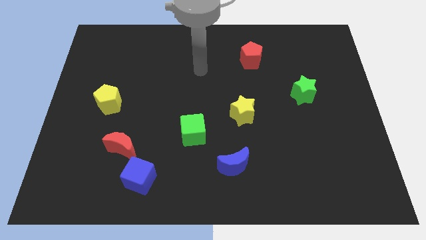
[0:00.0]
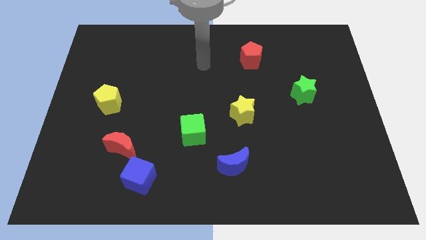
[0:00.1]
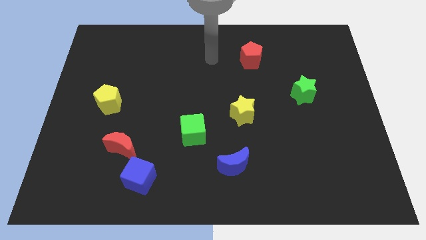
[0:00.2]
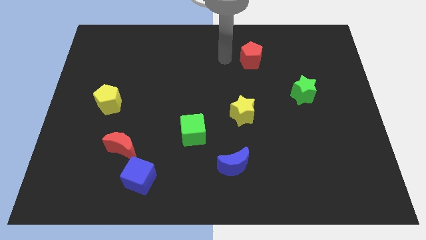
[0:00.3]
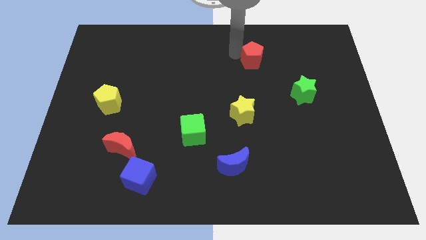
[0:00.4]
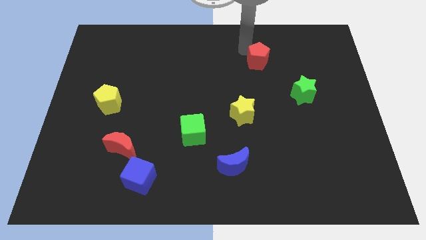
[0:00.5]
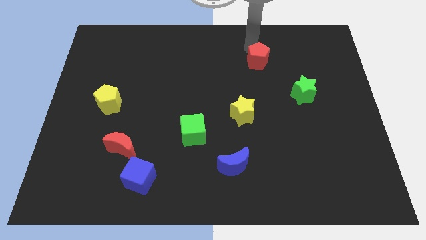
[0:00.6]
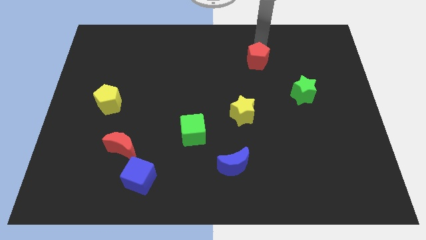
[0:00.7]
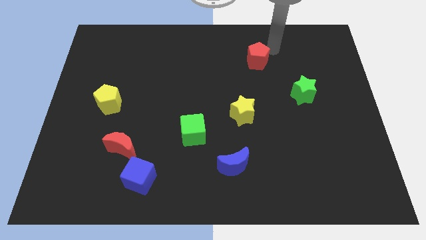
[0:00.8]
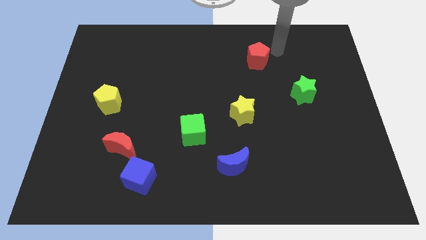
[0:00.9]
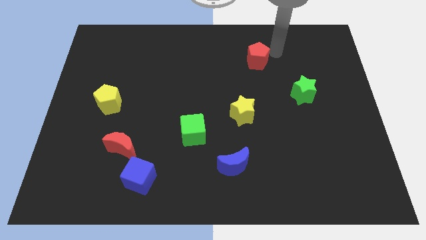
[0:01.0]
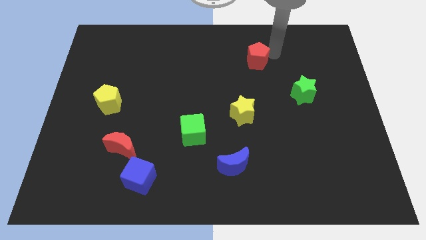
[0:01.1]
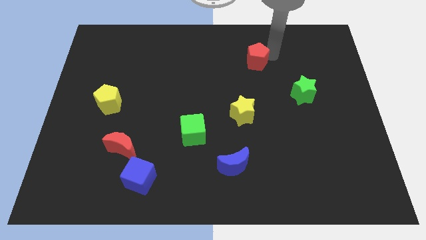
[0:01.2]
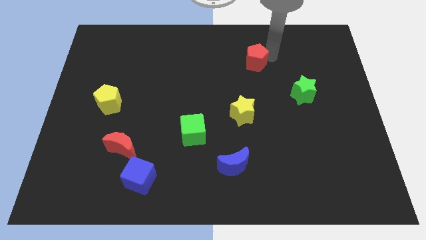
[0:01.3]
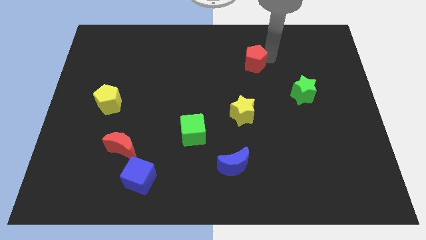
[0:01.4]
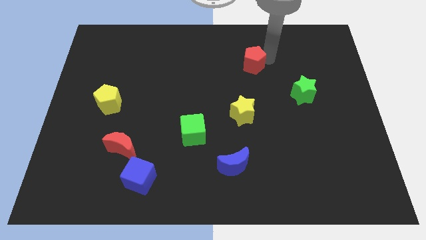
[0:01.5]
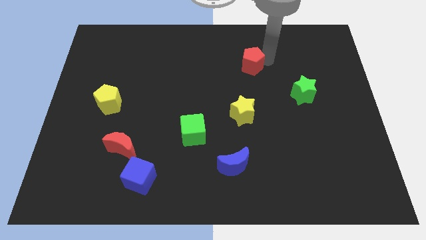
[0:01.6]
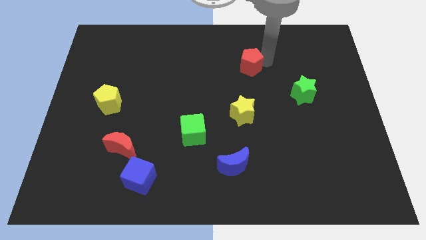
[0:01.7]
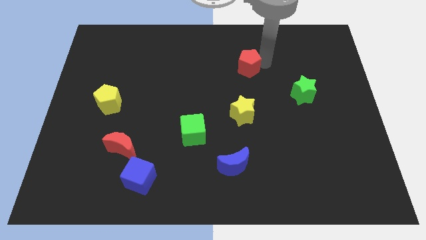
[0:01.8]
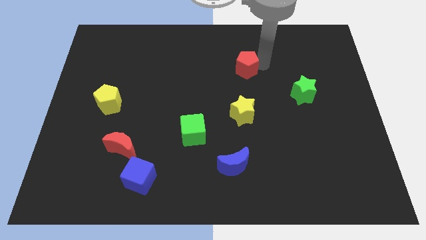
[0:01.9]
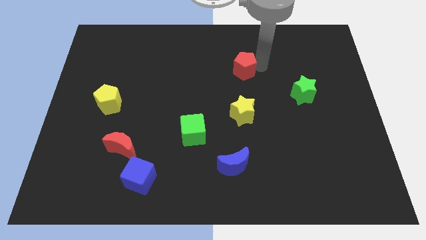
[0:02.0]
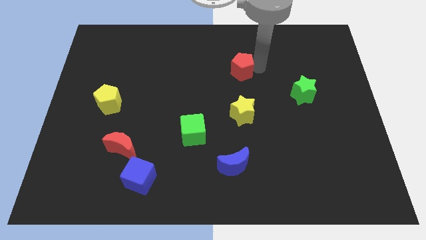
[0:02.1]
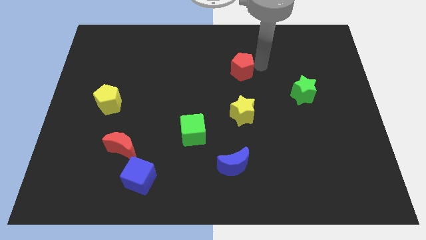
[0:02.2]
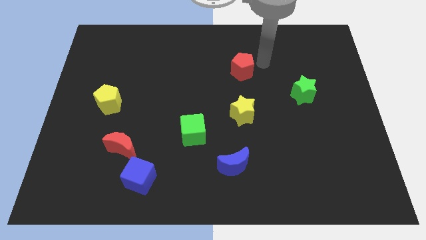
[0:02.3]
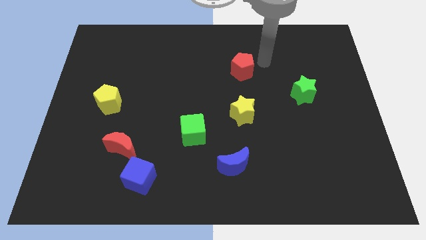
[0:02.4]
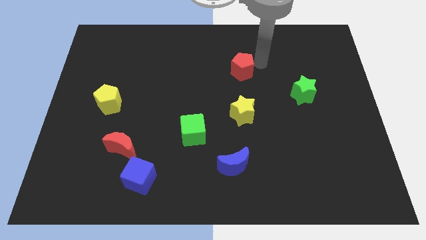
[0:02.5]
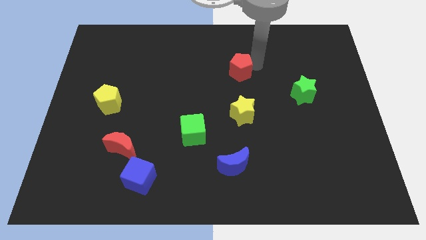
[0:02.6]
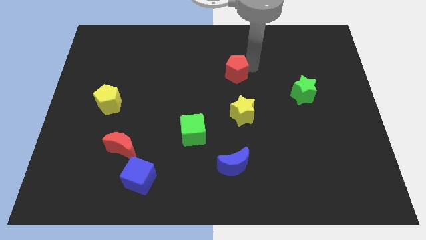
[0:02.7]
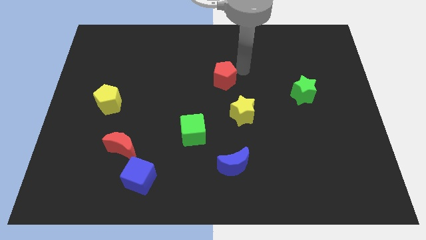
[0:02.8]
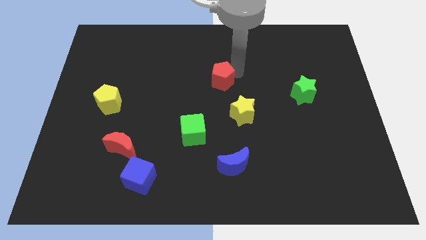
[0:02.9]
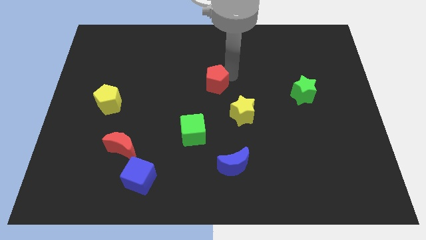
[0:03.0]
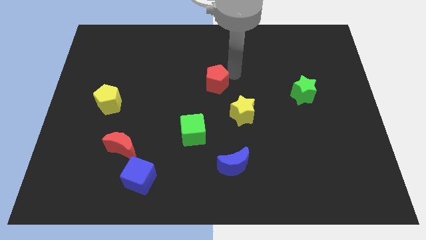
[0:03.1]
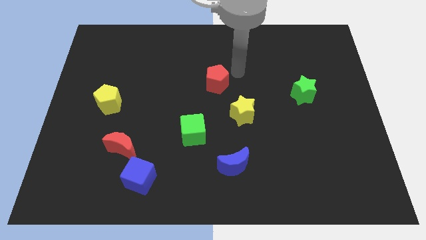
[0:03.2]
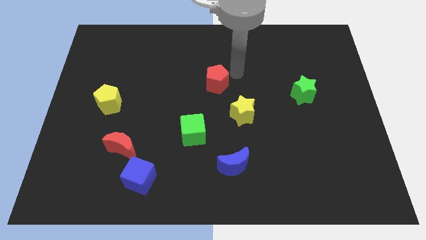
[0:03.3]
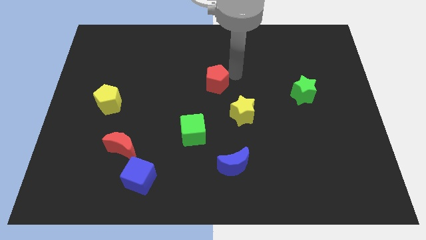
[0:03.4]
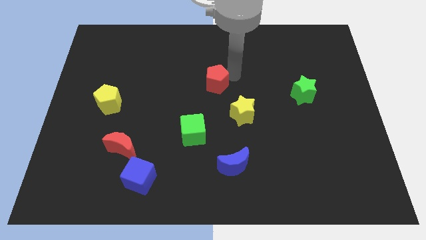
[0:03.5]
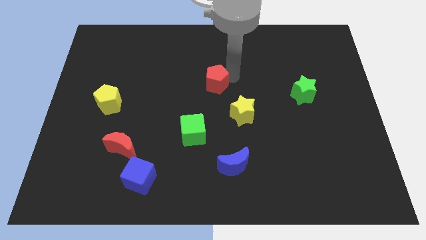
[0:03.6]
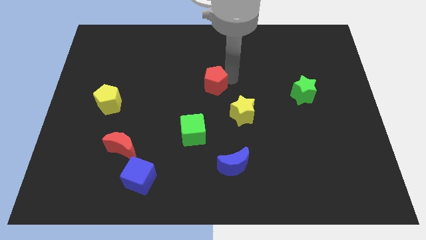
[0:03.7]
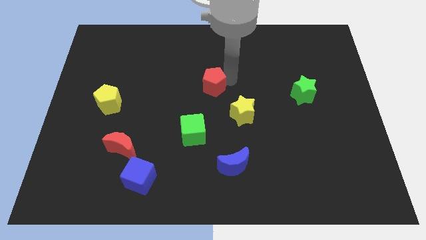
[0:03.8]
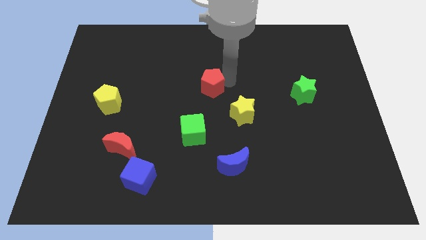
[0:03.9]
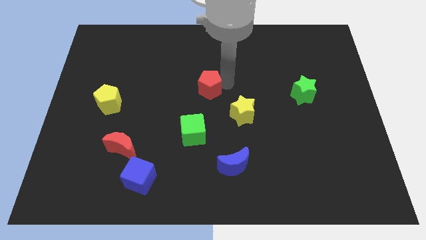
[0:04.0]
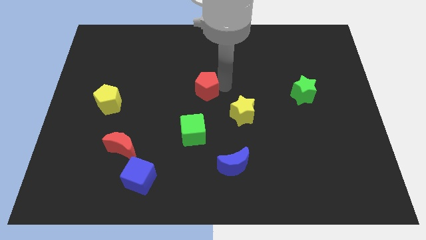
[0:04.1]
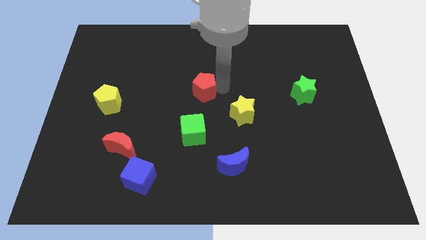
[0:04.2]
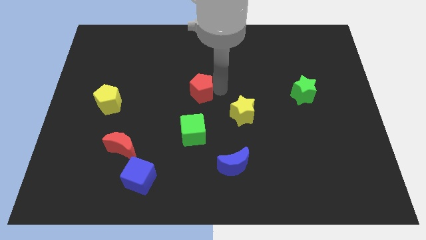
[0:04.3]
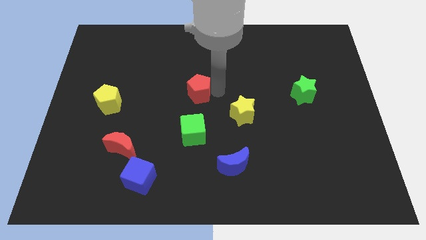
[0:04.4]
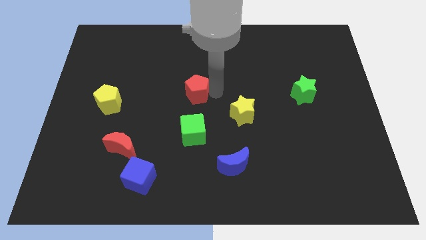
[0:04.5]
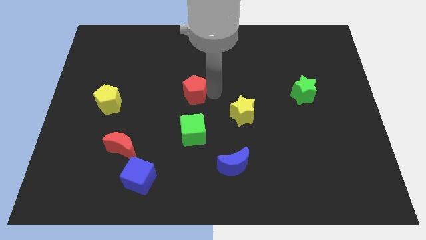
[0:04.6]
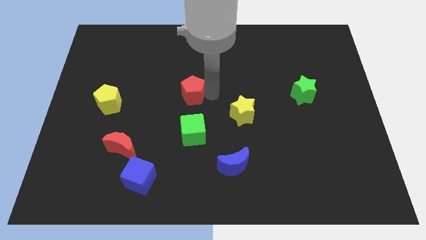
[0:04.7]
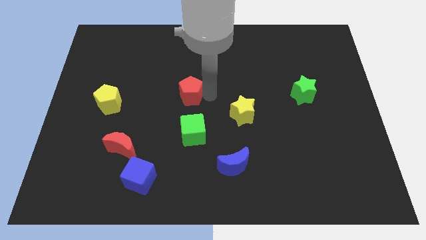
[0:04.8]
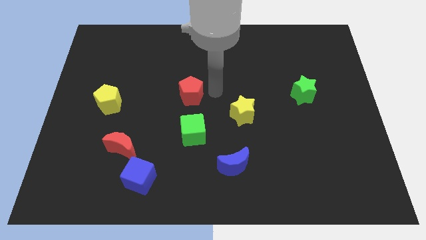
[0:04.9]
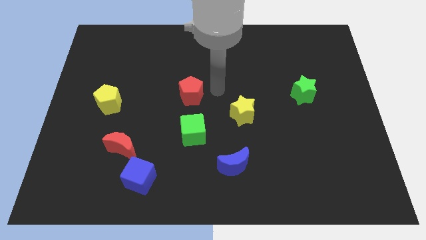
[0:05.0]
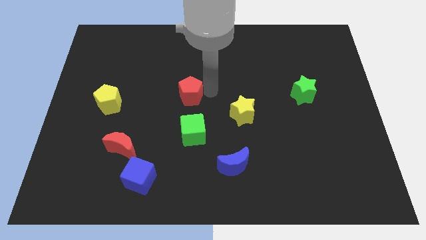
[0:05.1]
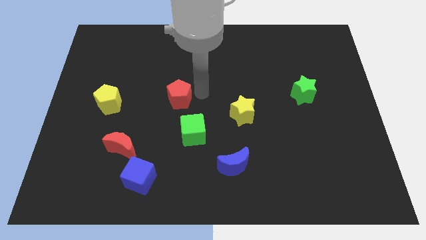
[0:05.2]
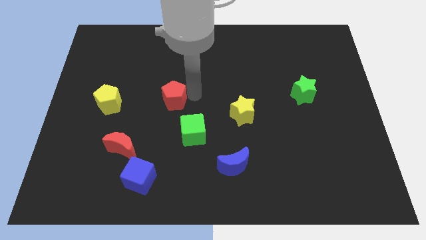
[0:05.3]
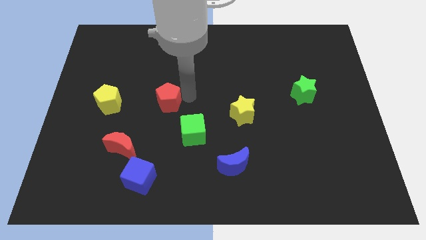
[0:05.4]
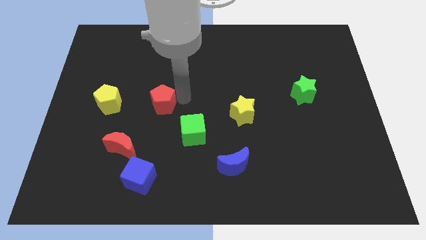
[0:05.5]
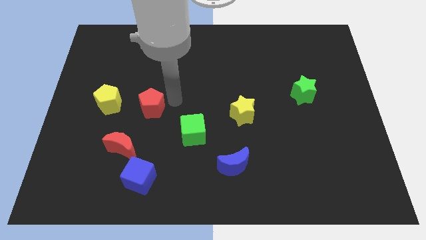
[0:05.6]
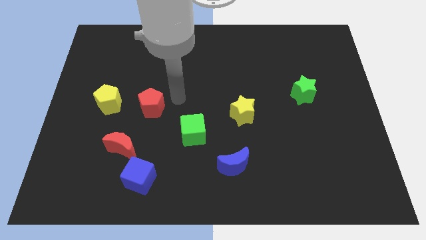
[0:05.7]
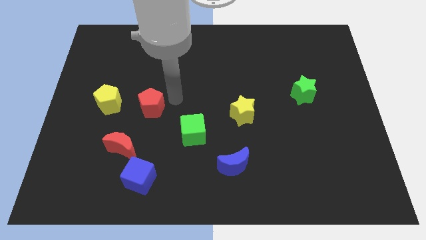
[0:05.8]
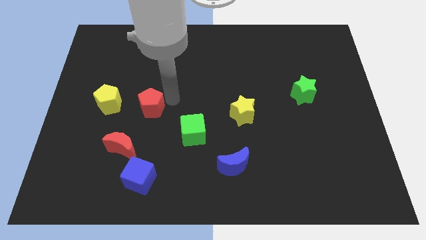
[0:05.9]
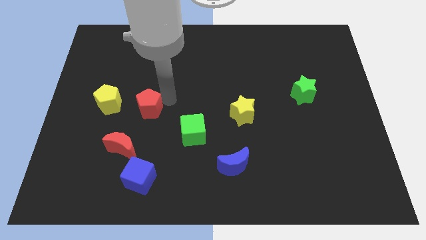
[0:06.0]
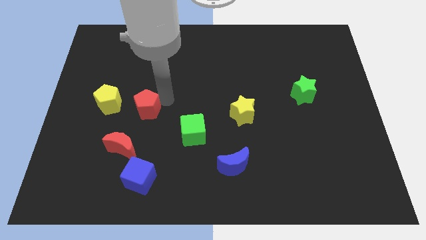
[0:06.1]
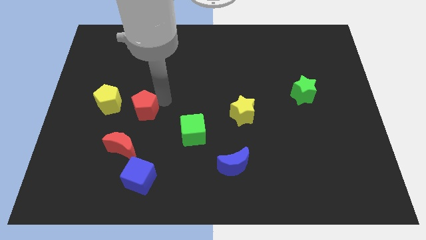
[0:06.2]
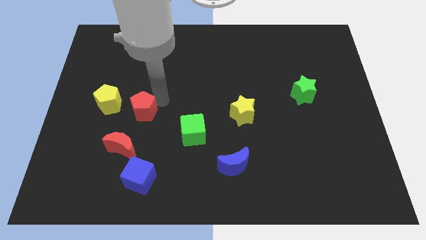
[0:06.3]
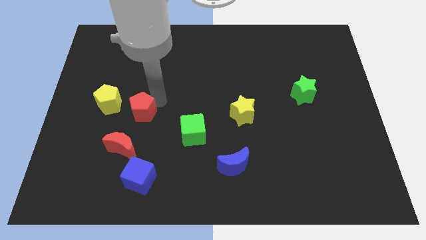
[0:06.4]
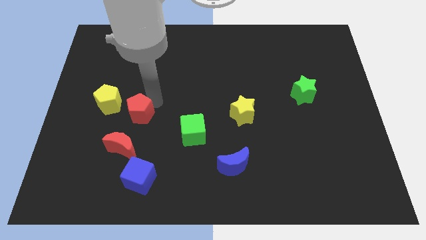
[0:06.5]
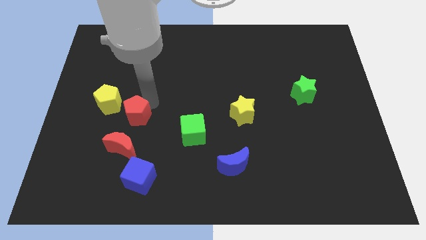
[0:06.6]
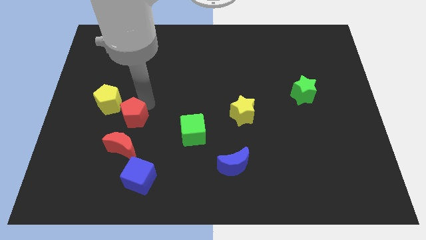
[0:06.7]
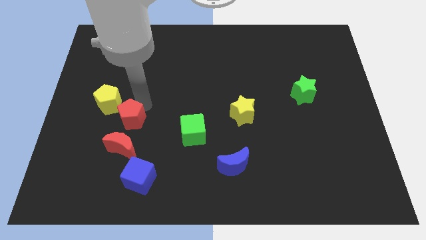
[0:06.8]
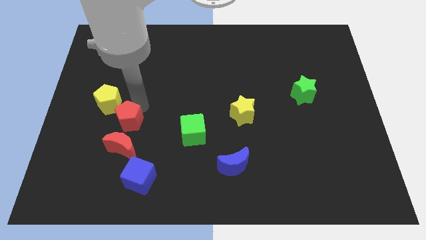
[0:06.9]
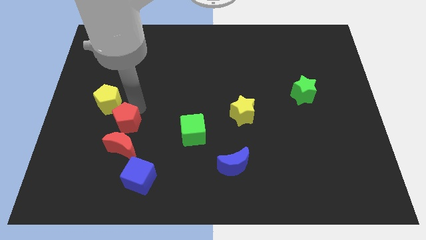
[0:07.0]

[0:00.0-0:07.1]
move the red pentagon to the top left of the red moon
